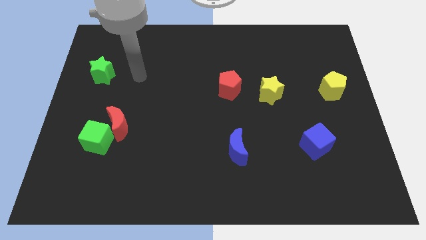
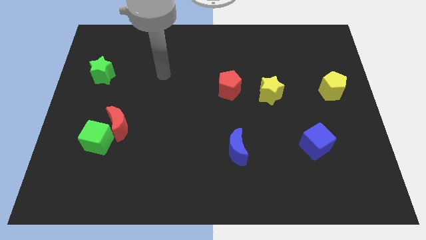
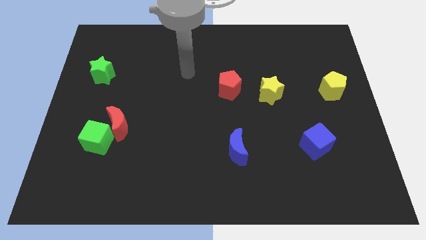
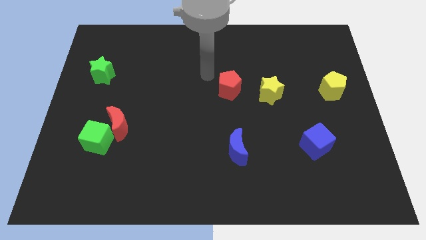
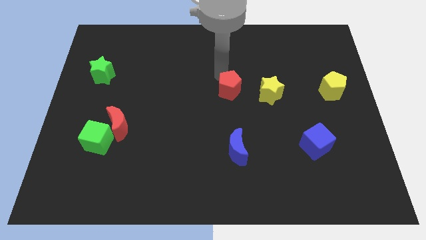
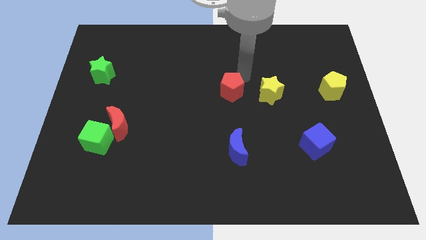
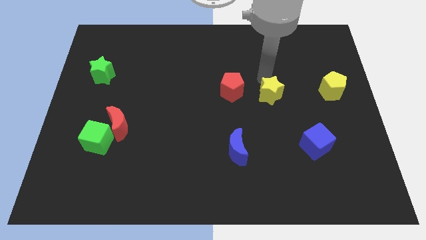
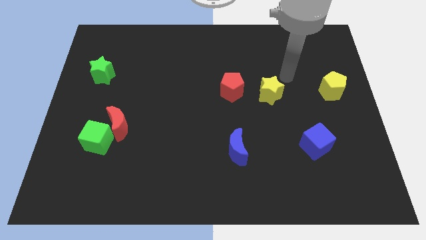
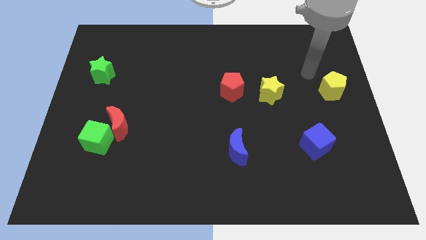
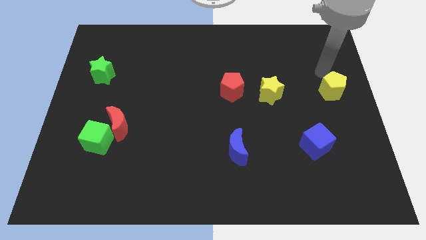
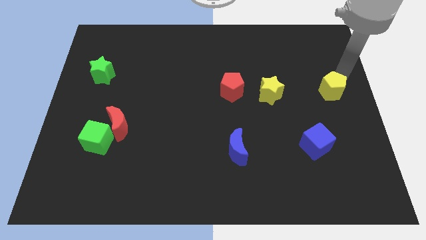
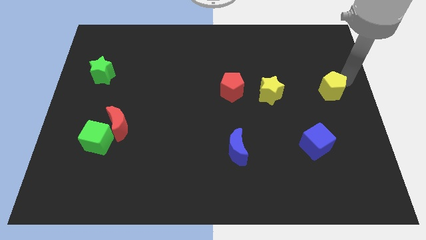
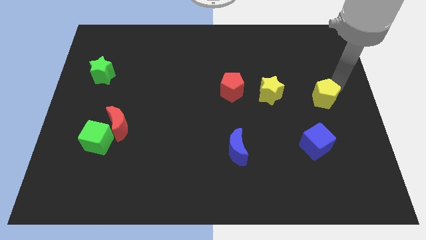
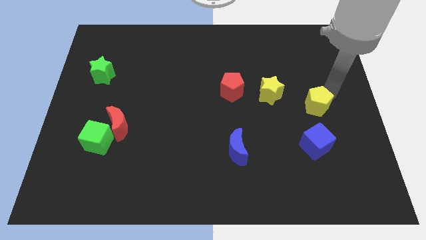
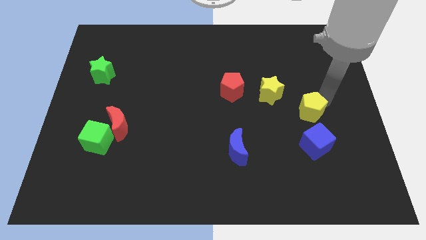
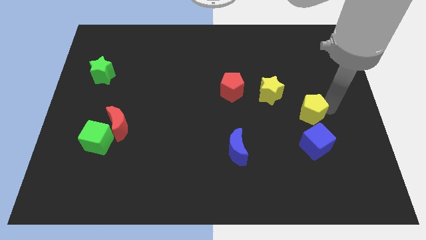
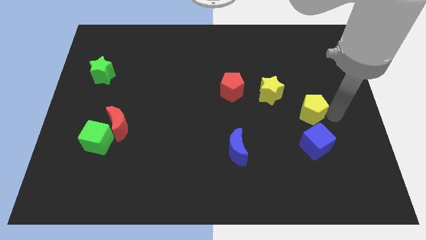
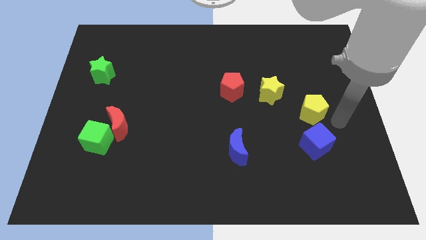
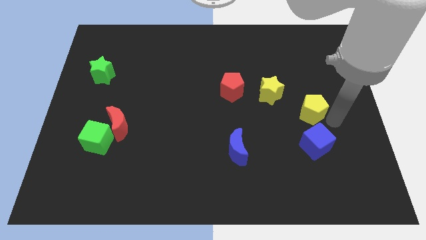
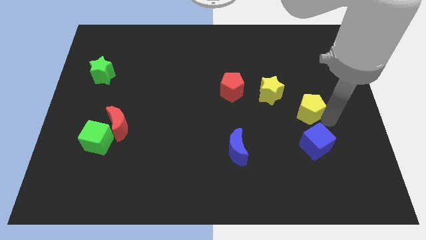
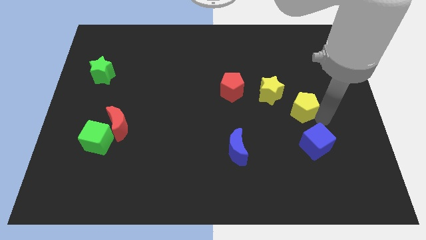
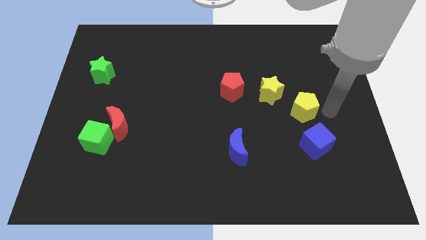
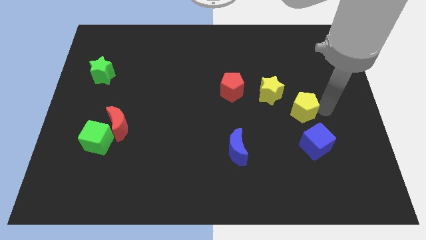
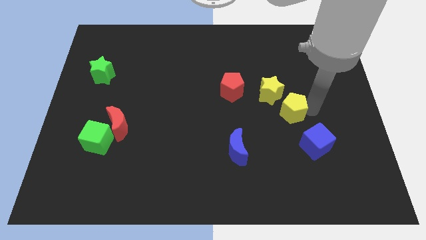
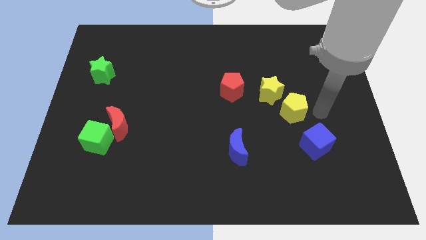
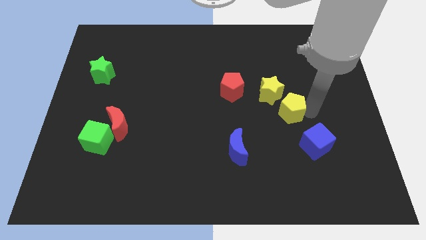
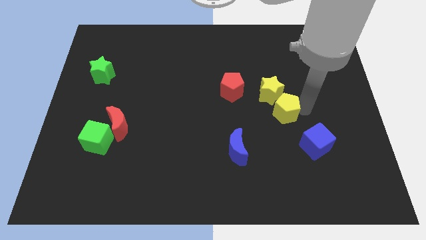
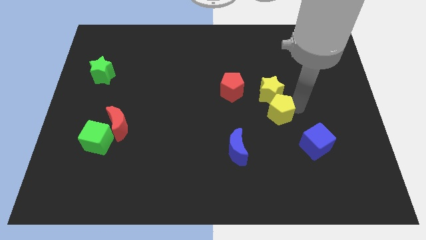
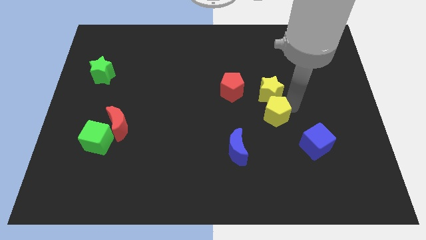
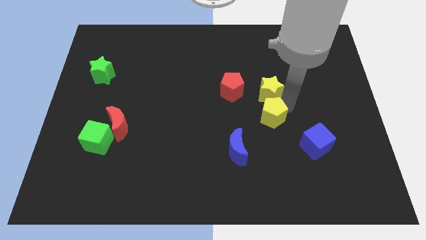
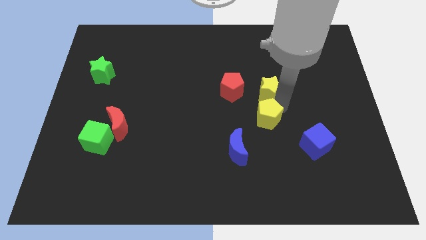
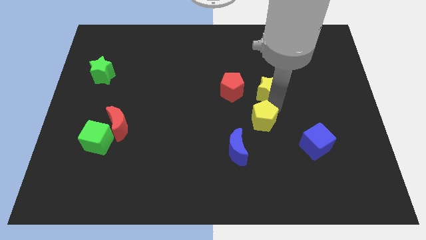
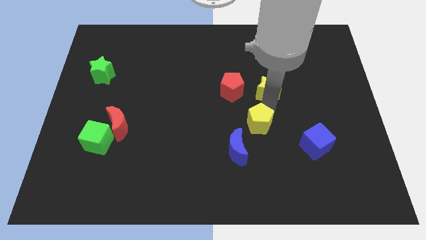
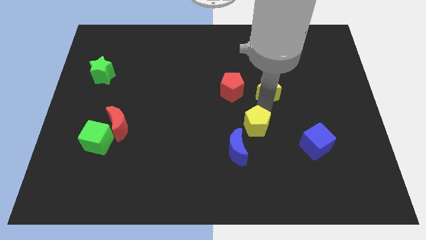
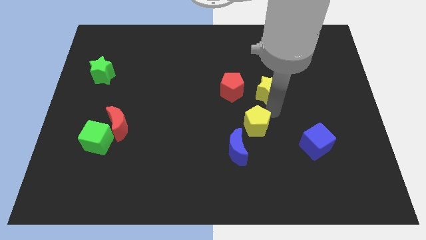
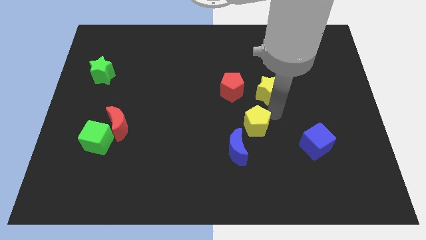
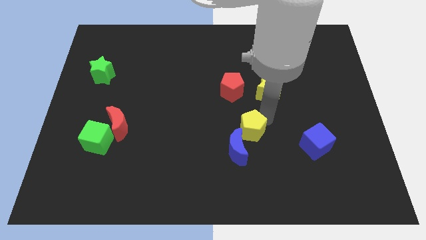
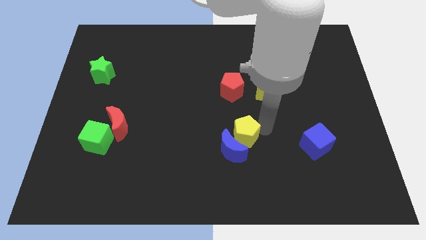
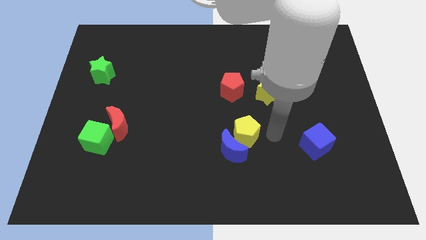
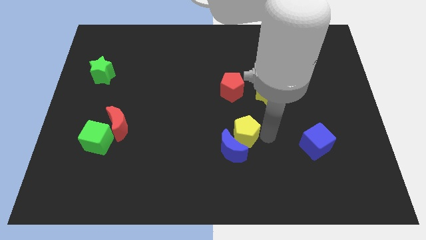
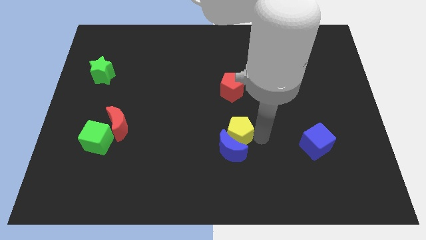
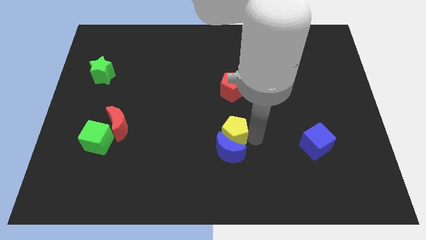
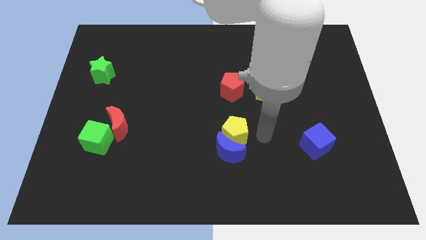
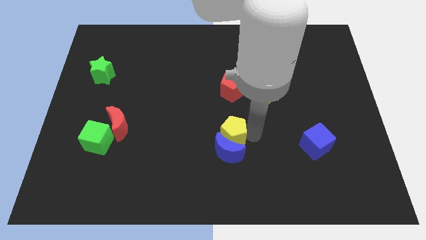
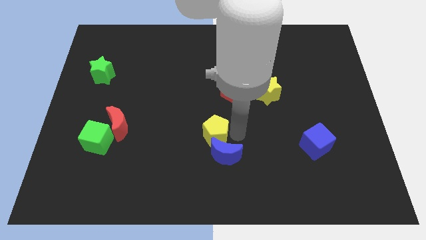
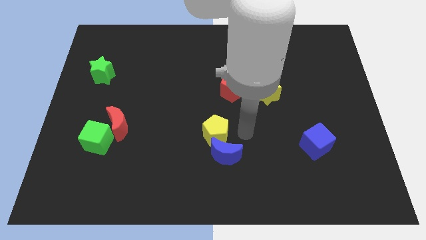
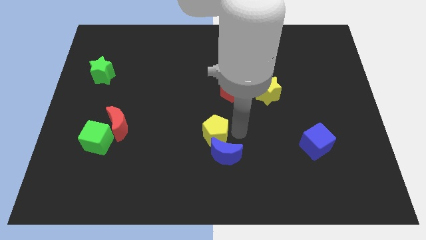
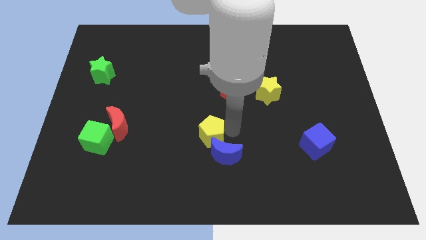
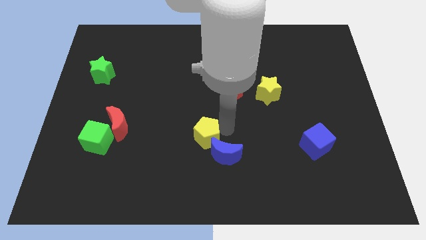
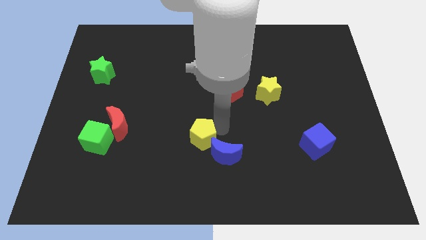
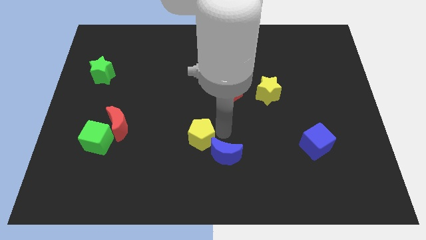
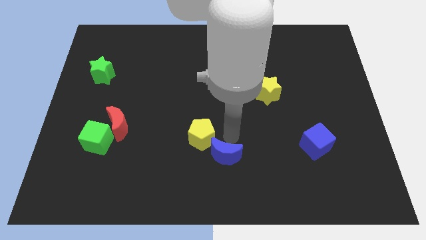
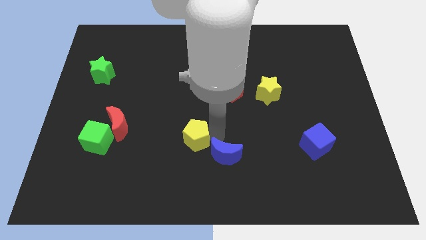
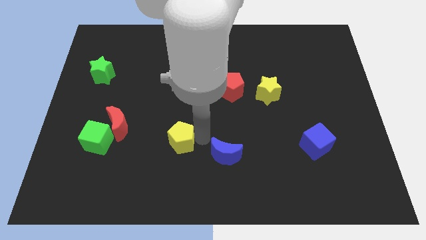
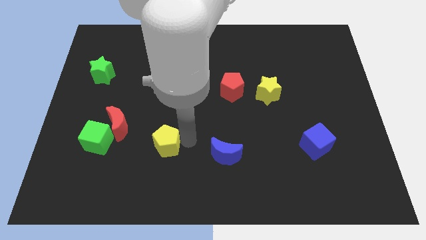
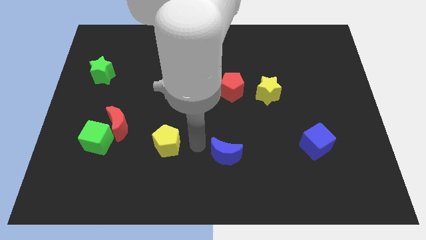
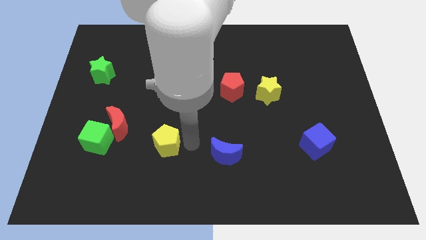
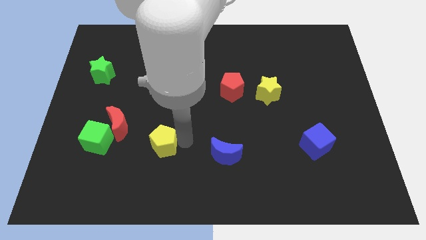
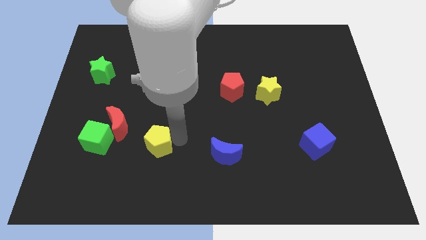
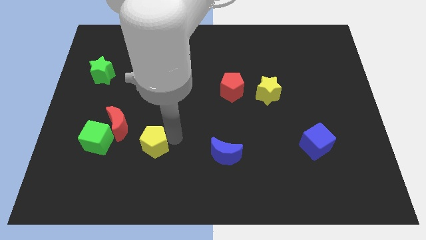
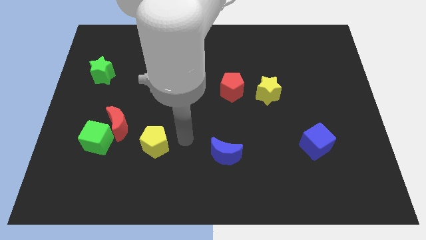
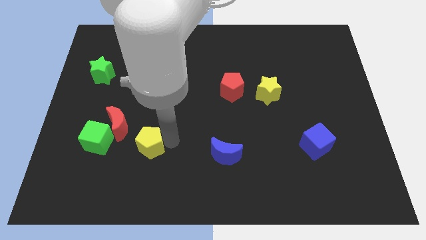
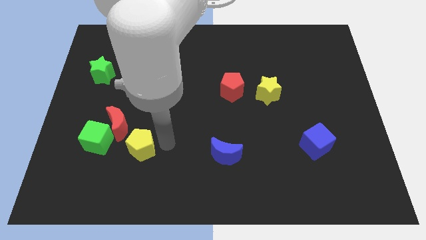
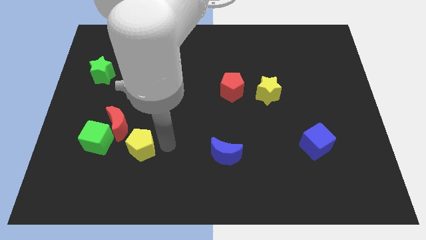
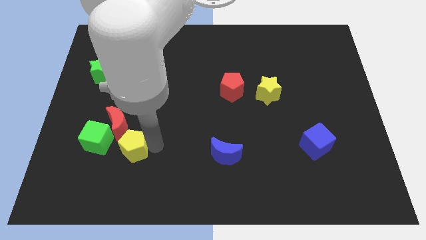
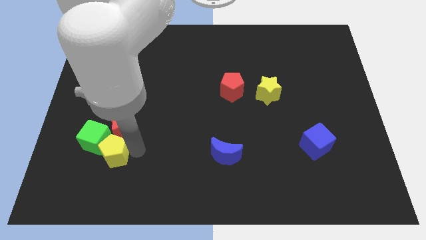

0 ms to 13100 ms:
move the yellow pentagon towards the green cube

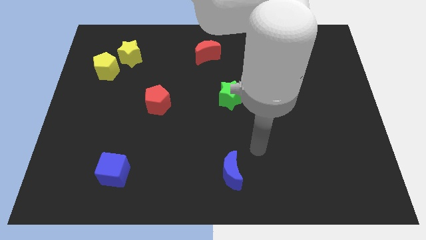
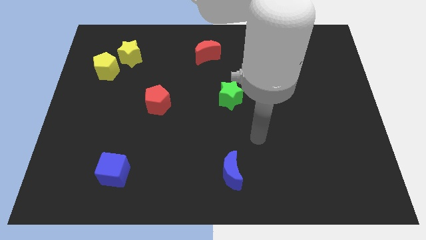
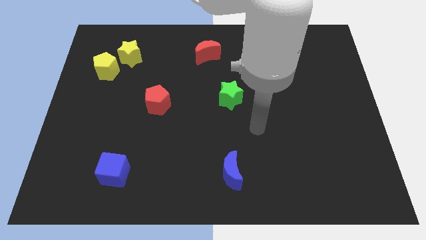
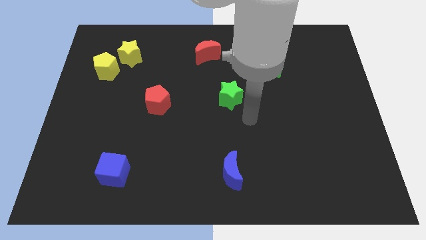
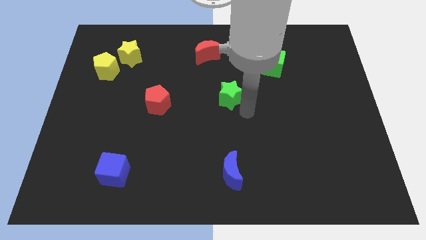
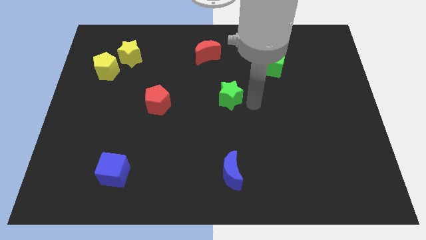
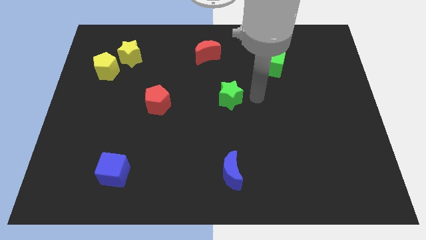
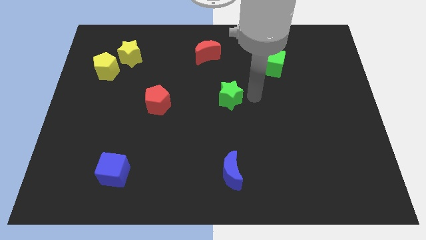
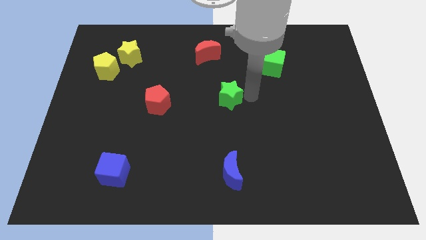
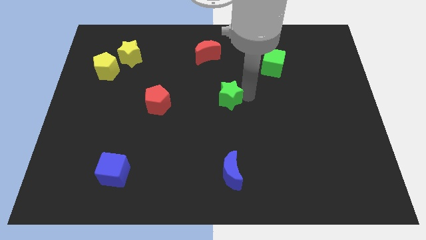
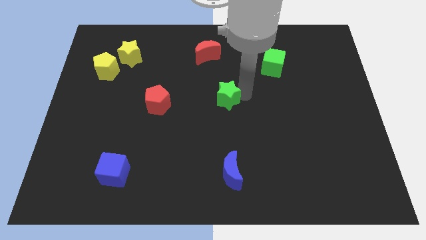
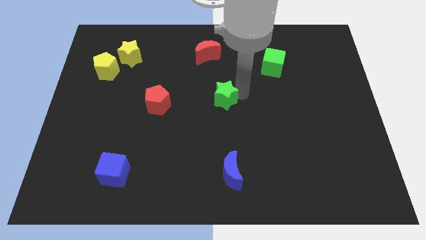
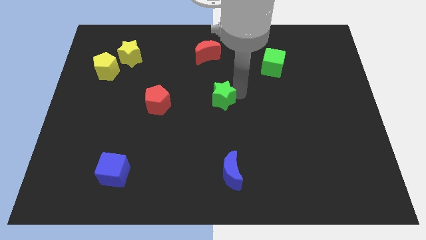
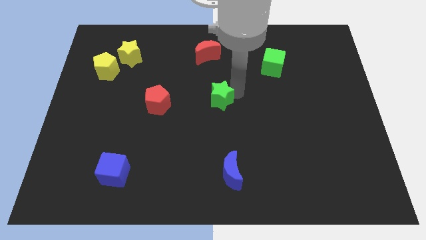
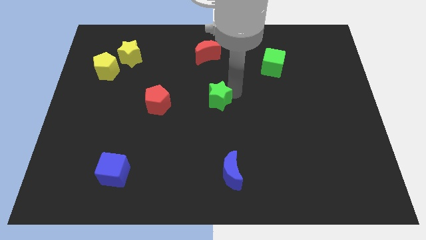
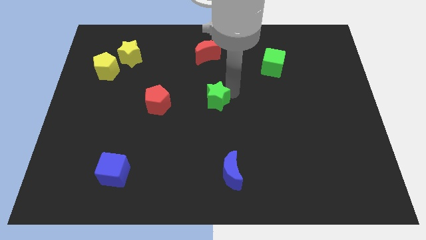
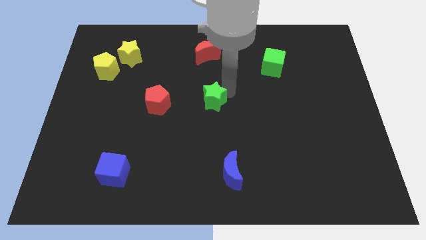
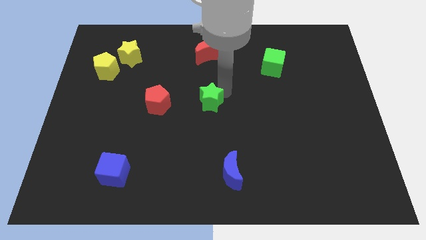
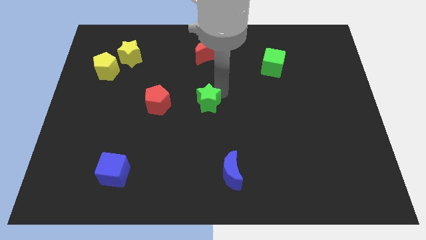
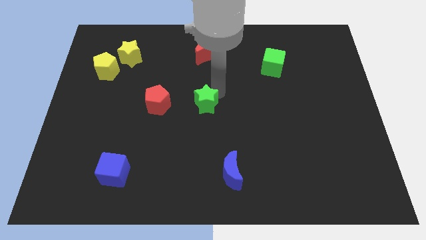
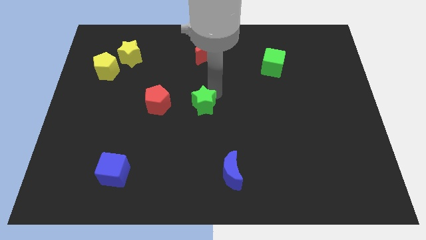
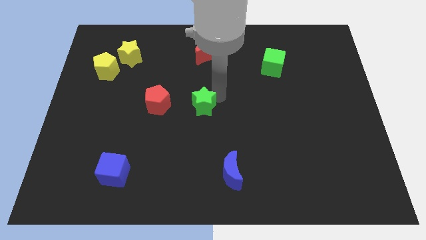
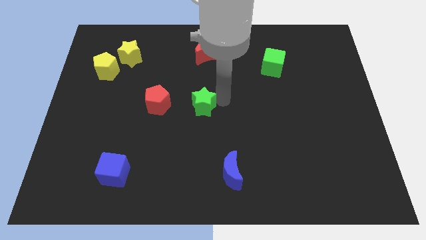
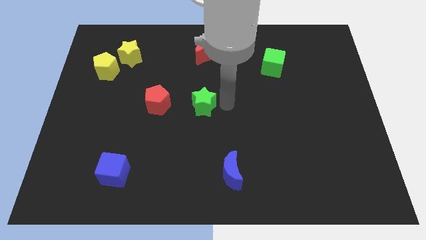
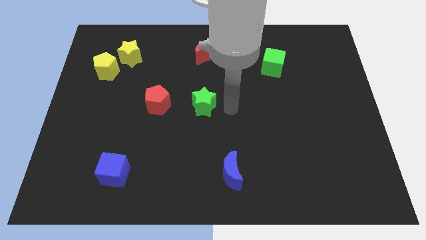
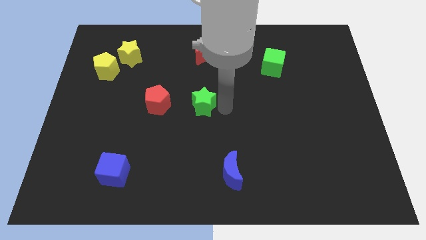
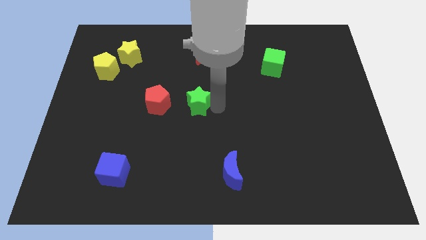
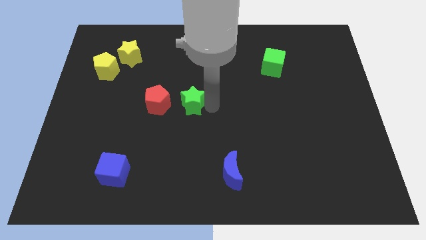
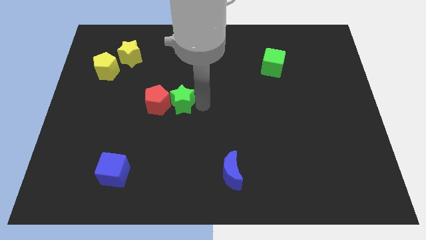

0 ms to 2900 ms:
push the green star next to the red pentagon
